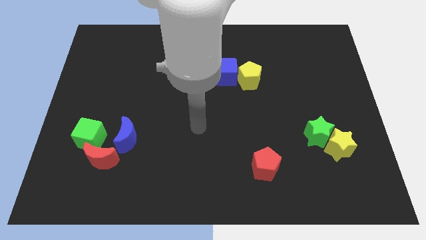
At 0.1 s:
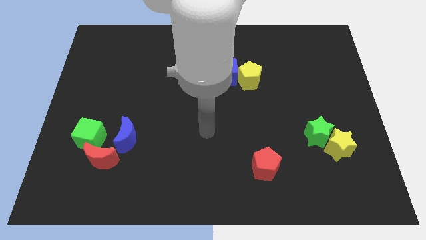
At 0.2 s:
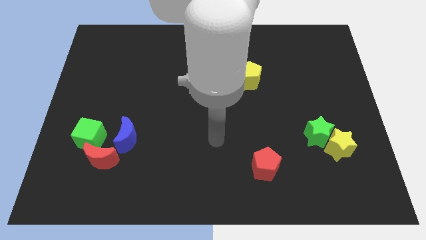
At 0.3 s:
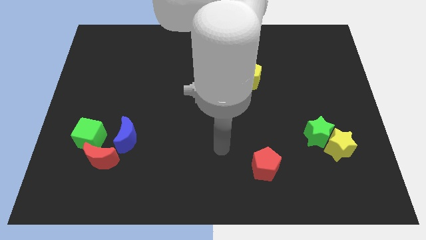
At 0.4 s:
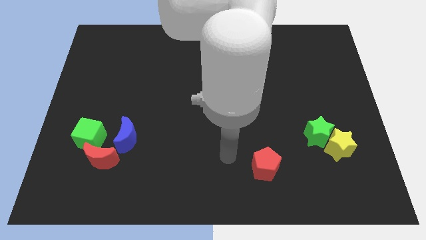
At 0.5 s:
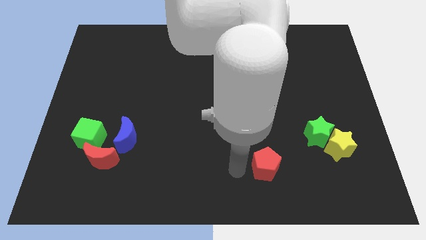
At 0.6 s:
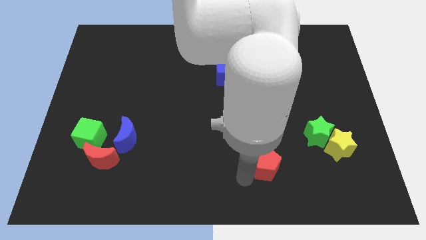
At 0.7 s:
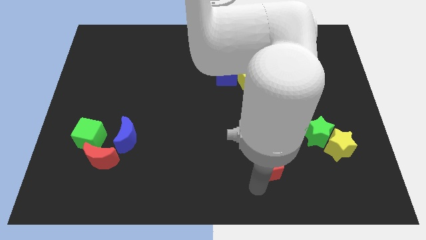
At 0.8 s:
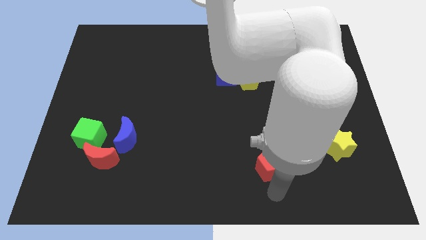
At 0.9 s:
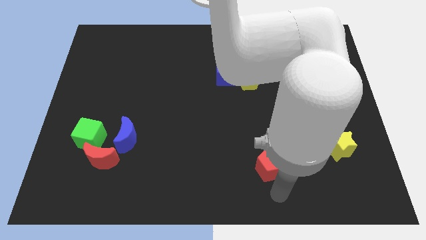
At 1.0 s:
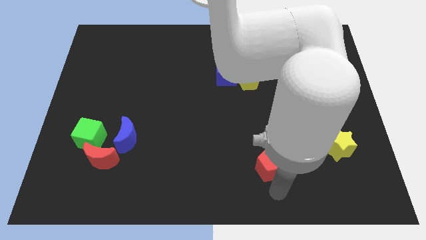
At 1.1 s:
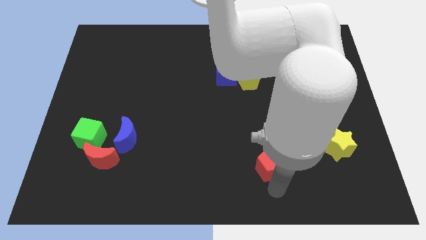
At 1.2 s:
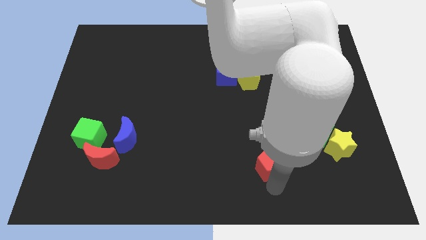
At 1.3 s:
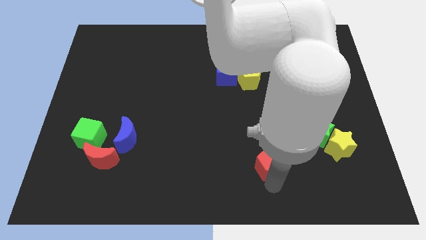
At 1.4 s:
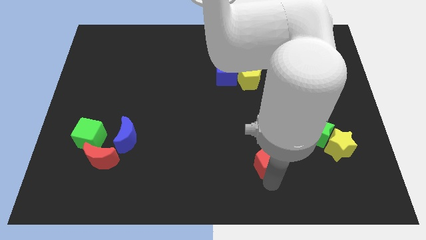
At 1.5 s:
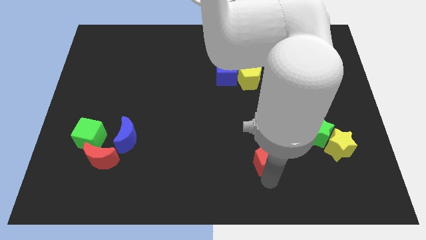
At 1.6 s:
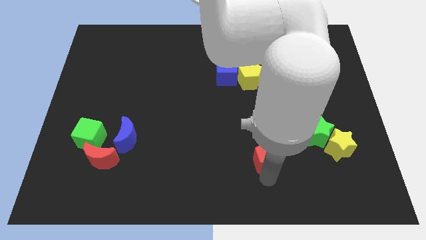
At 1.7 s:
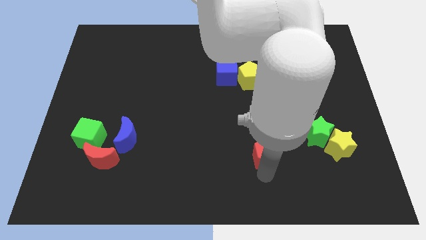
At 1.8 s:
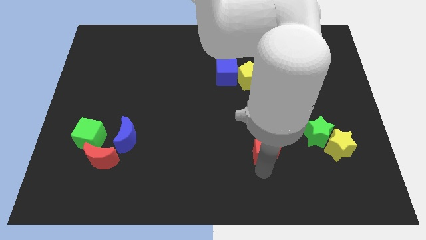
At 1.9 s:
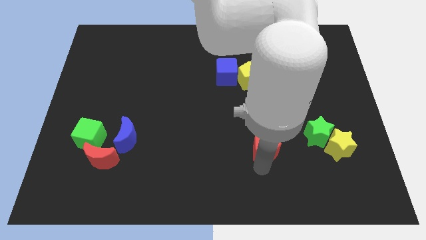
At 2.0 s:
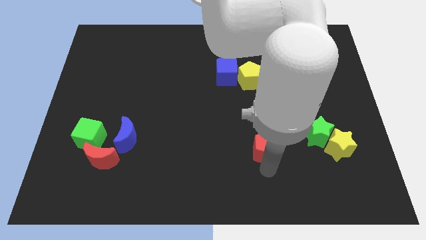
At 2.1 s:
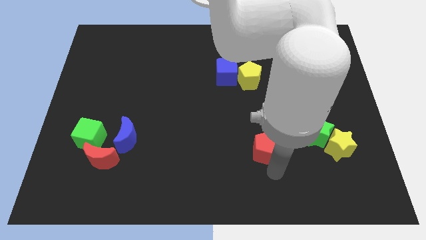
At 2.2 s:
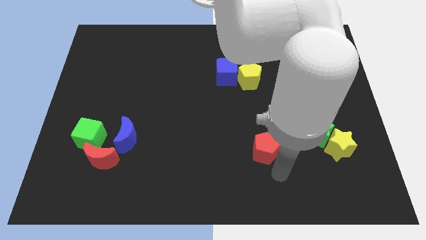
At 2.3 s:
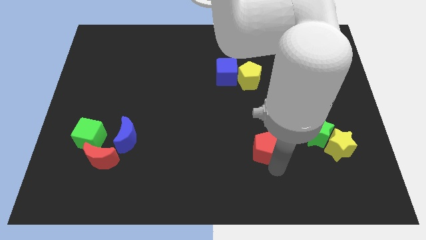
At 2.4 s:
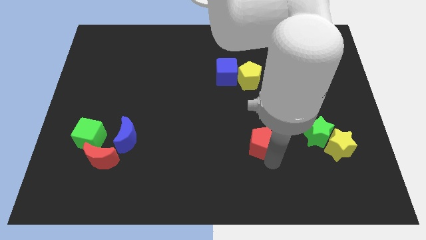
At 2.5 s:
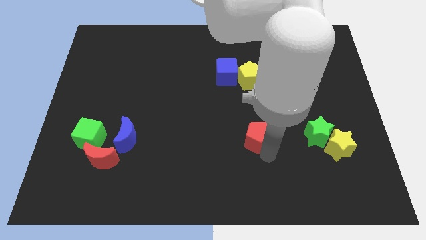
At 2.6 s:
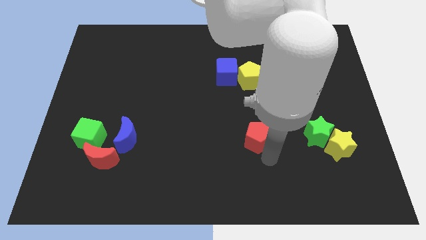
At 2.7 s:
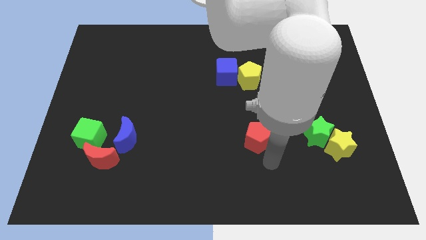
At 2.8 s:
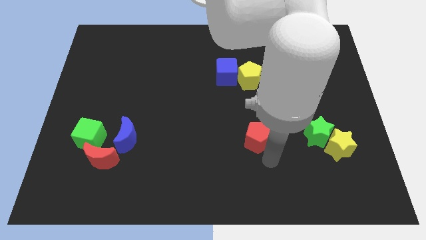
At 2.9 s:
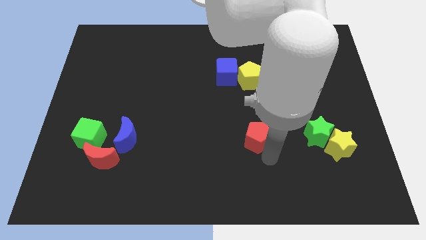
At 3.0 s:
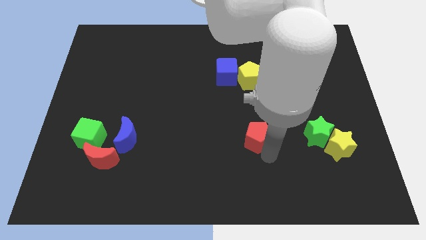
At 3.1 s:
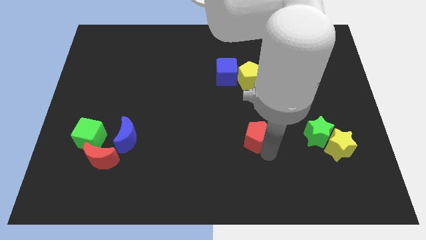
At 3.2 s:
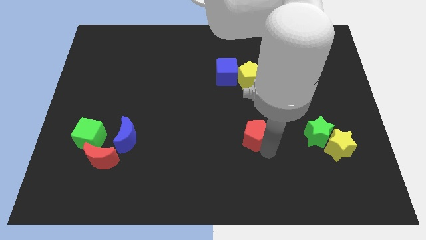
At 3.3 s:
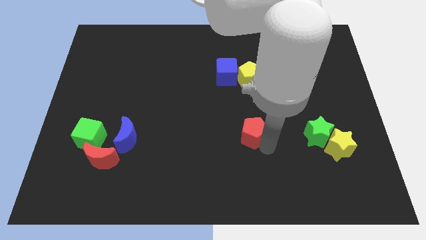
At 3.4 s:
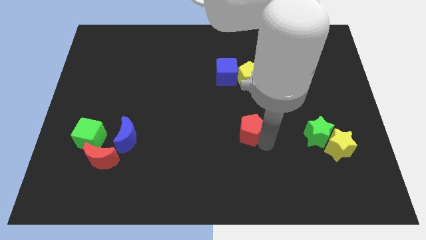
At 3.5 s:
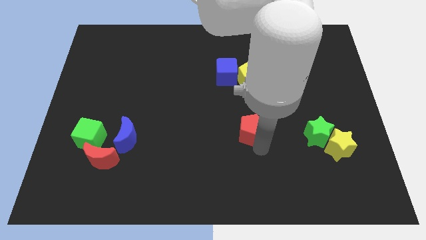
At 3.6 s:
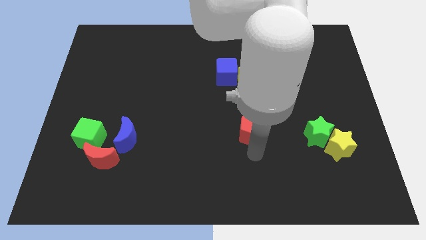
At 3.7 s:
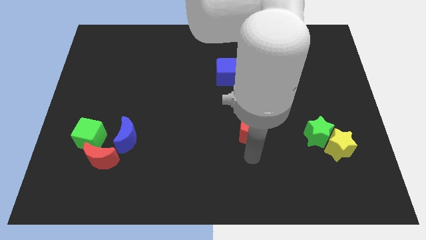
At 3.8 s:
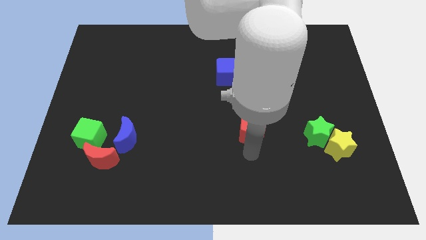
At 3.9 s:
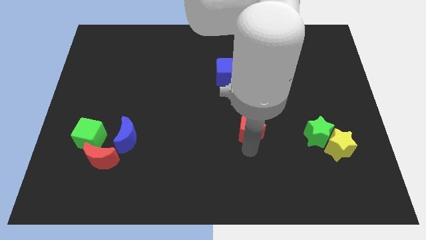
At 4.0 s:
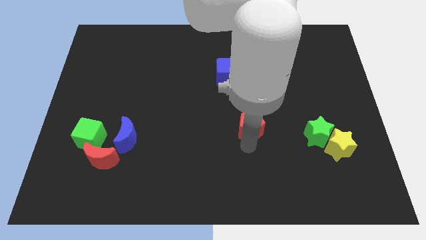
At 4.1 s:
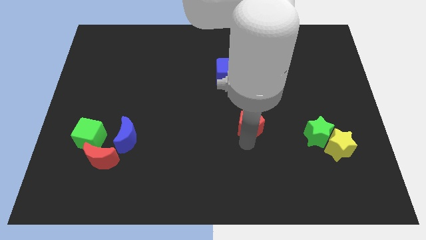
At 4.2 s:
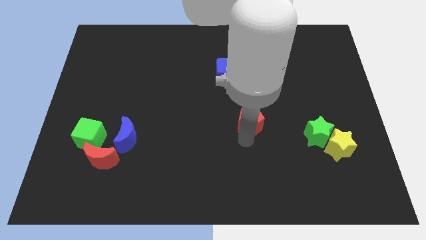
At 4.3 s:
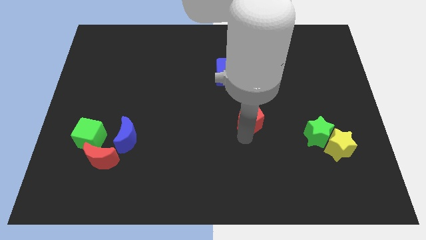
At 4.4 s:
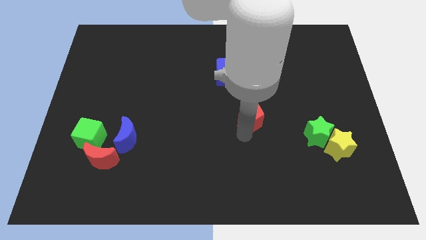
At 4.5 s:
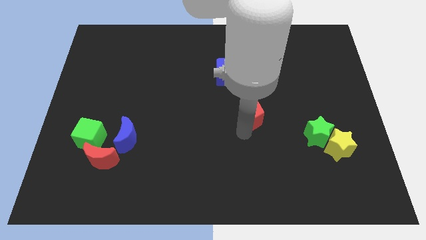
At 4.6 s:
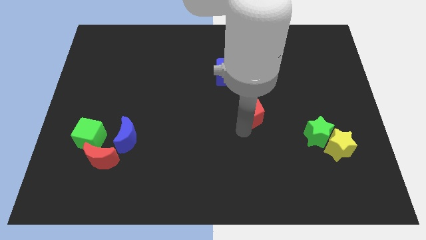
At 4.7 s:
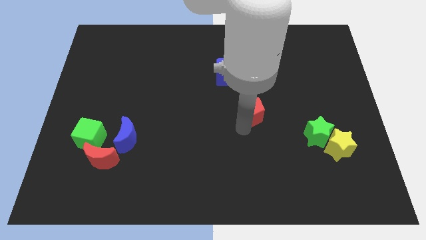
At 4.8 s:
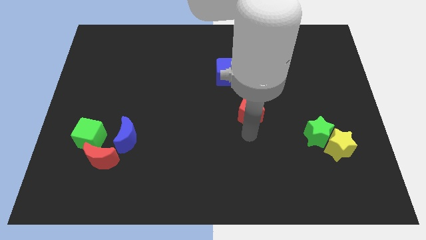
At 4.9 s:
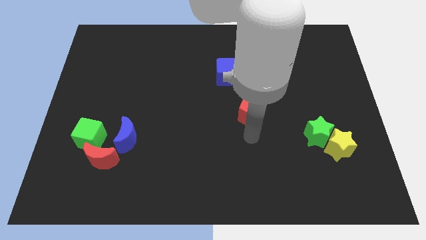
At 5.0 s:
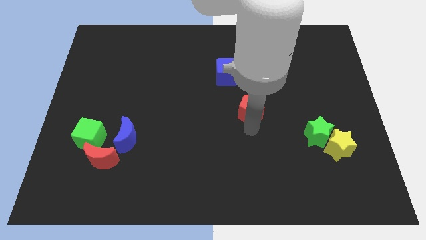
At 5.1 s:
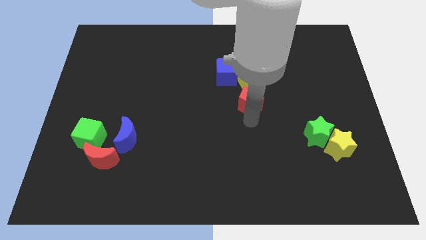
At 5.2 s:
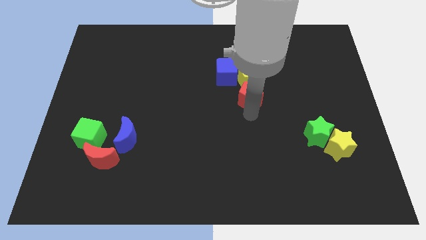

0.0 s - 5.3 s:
put the red pentagon towards the yellow pentagon

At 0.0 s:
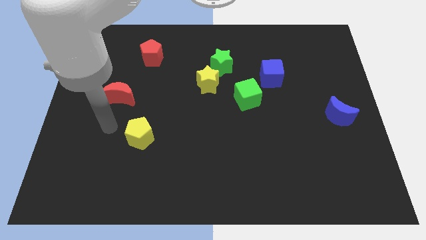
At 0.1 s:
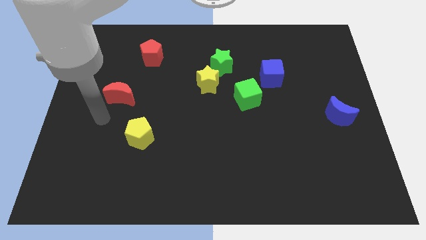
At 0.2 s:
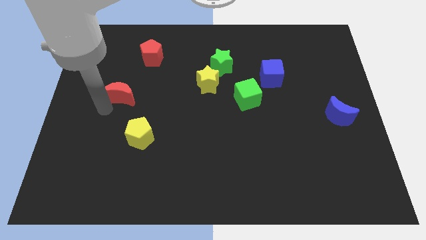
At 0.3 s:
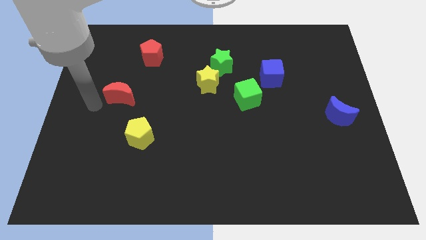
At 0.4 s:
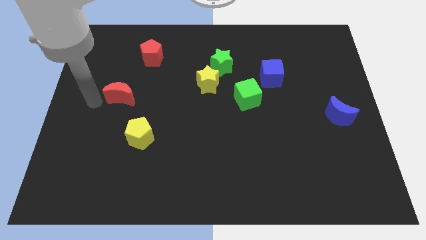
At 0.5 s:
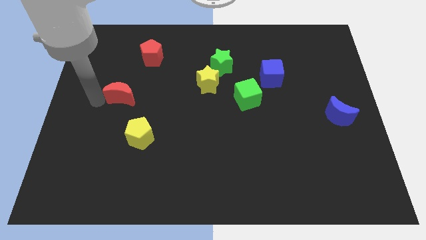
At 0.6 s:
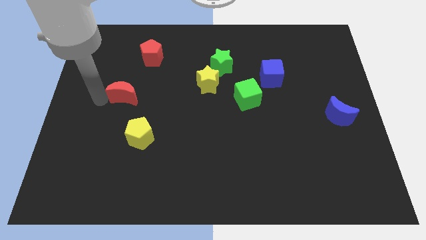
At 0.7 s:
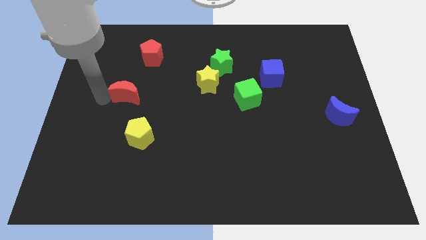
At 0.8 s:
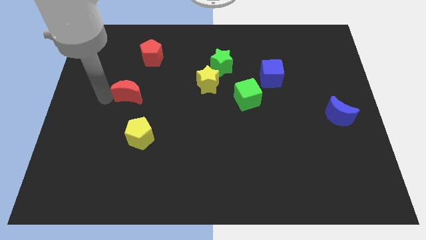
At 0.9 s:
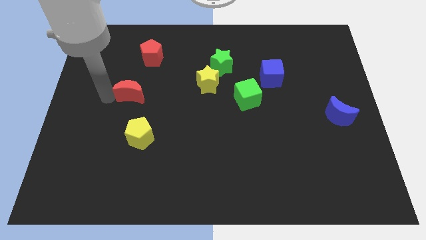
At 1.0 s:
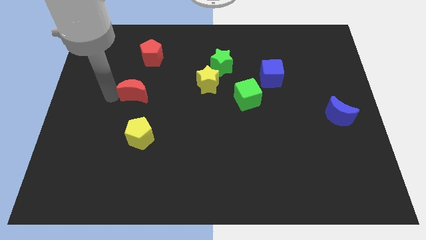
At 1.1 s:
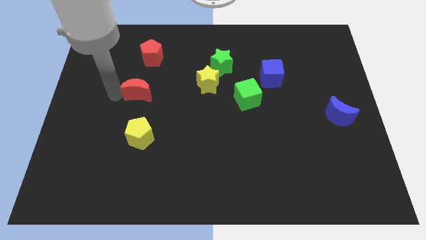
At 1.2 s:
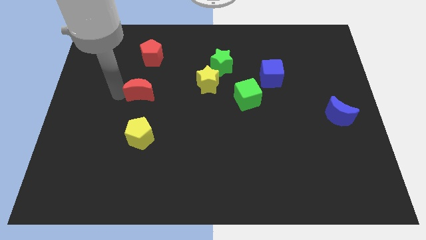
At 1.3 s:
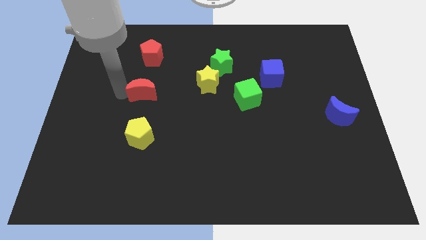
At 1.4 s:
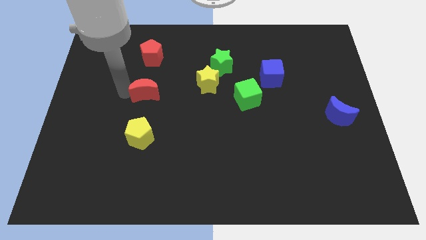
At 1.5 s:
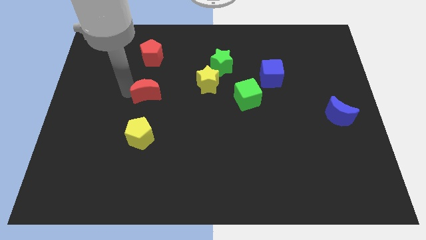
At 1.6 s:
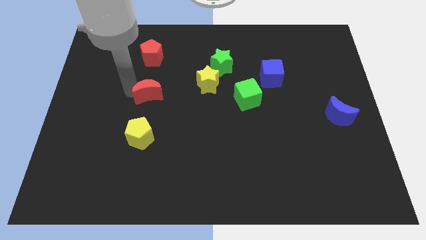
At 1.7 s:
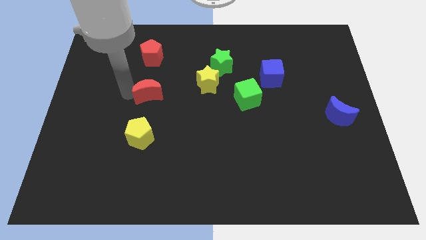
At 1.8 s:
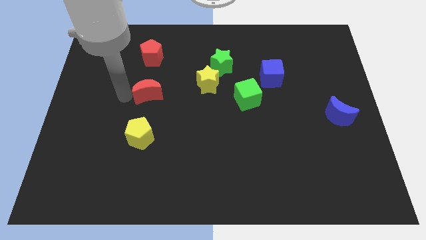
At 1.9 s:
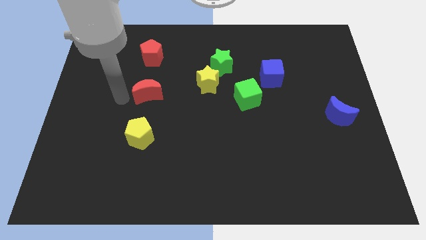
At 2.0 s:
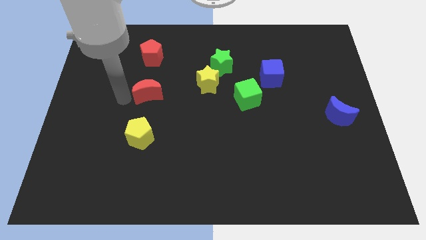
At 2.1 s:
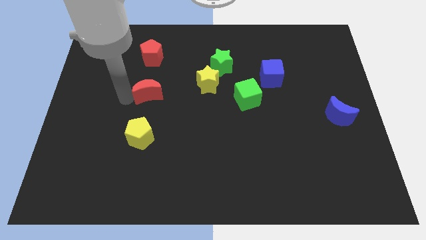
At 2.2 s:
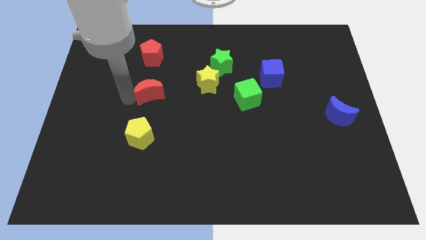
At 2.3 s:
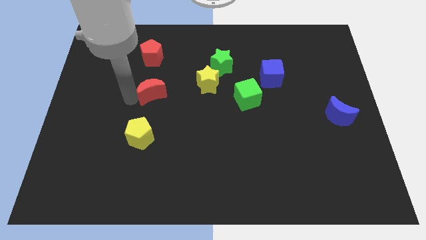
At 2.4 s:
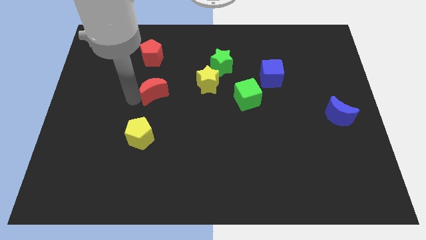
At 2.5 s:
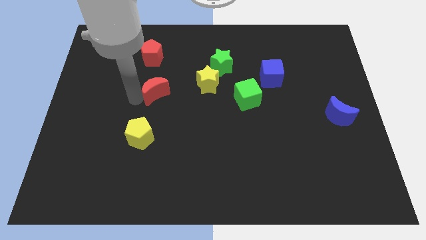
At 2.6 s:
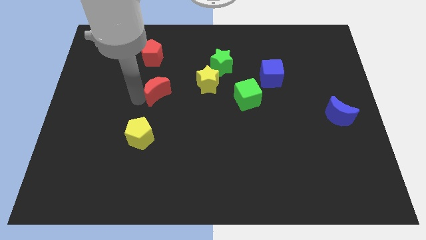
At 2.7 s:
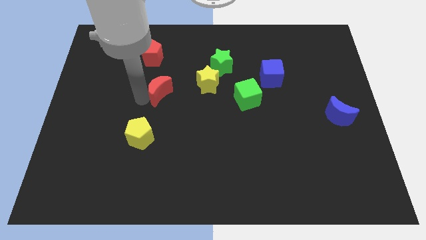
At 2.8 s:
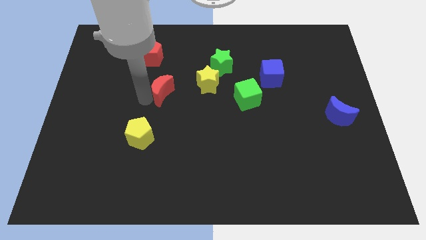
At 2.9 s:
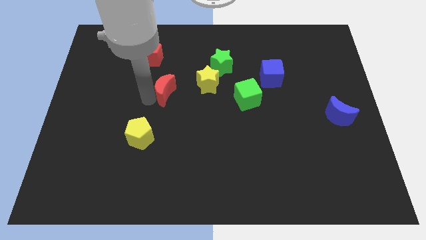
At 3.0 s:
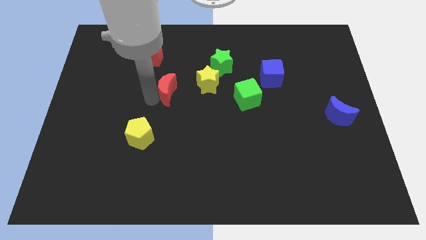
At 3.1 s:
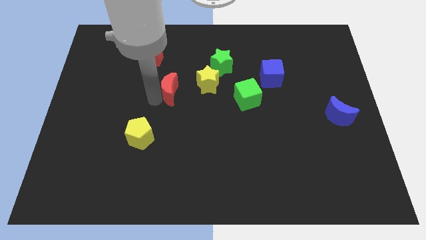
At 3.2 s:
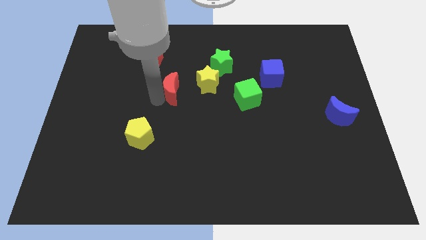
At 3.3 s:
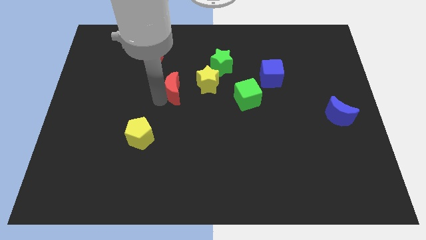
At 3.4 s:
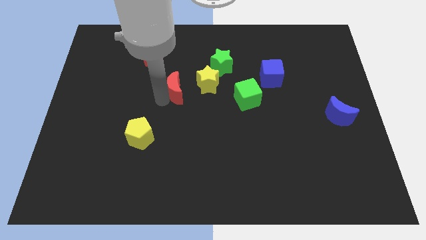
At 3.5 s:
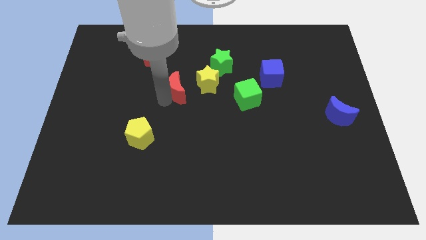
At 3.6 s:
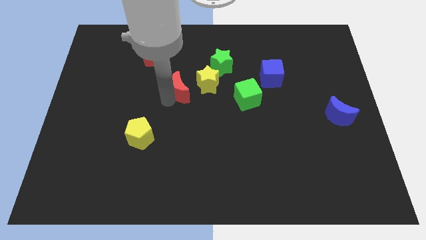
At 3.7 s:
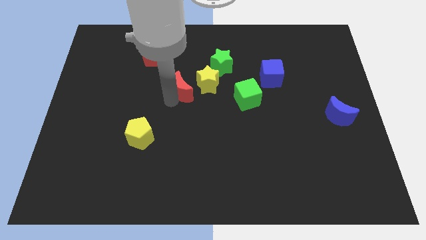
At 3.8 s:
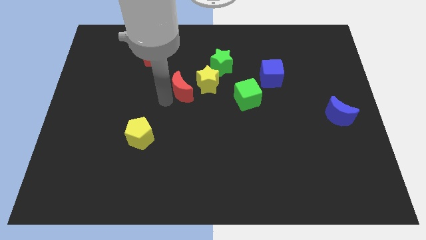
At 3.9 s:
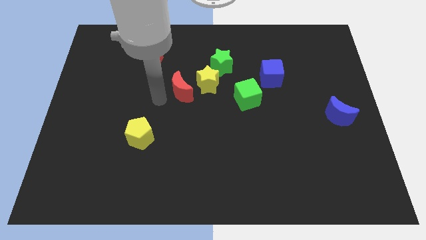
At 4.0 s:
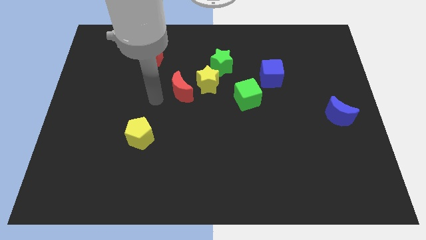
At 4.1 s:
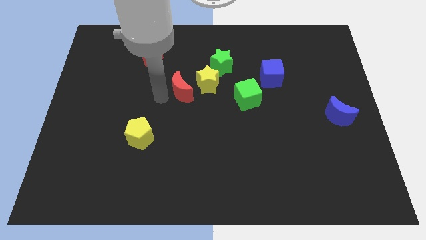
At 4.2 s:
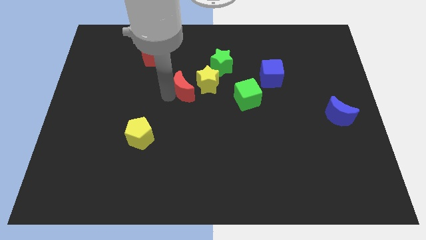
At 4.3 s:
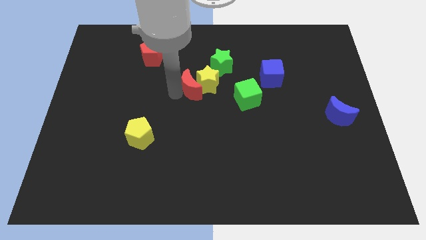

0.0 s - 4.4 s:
push the red moon towards the yellow star
